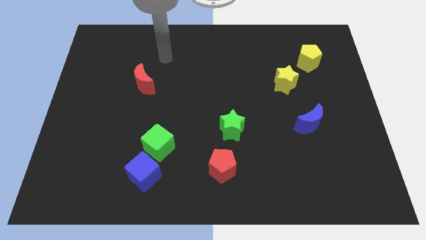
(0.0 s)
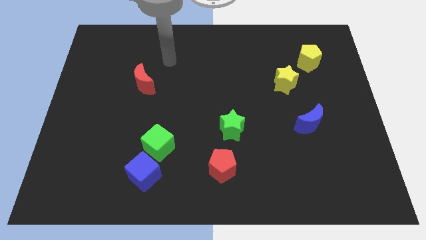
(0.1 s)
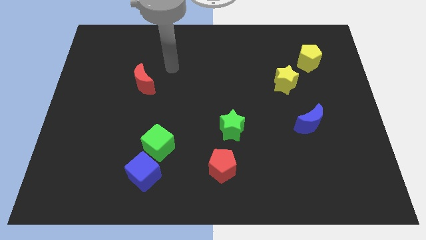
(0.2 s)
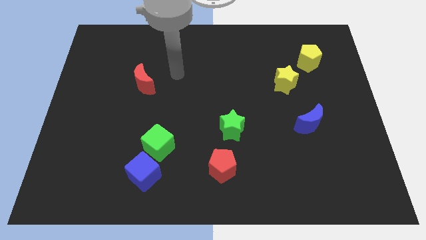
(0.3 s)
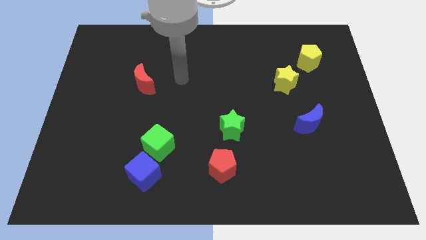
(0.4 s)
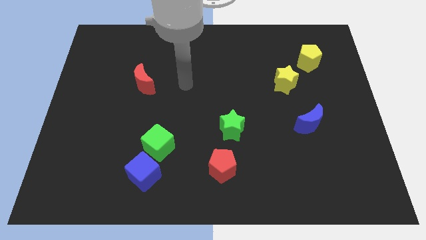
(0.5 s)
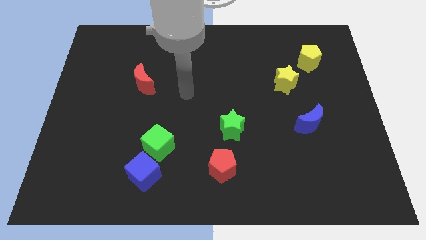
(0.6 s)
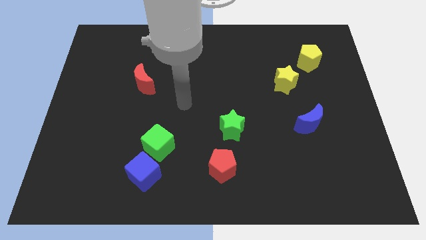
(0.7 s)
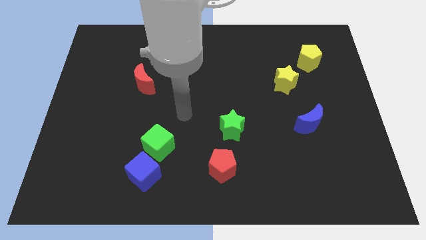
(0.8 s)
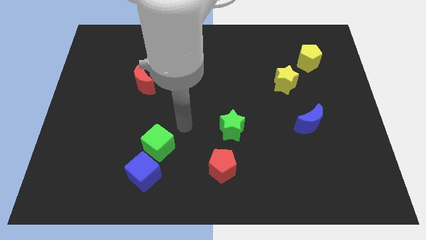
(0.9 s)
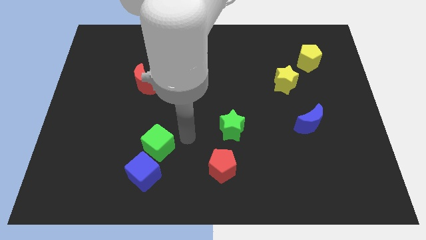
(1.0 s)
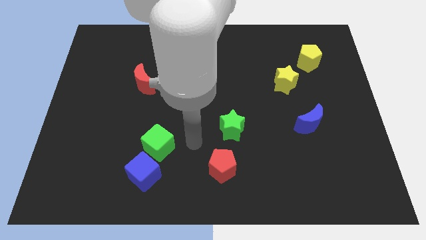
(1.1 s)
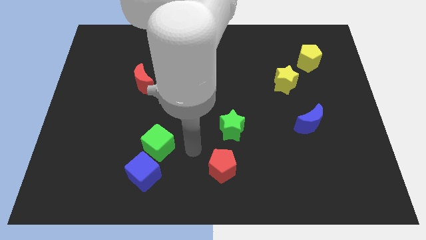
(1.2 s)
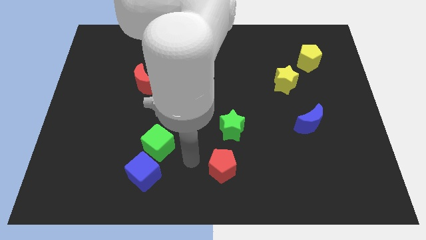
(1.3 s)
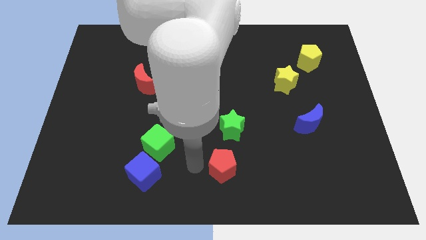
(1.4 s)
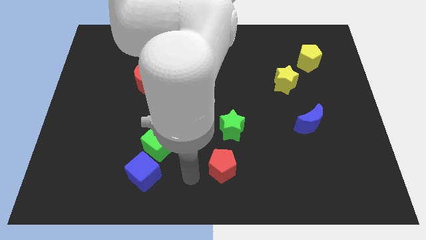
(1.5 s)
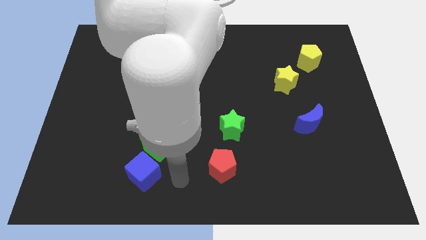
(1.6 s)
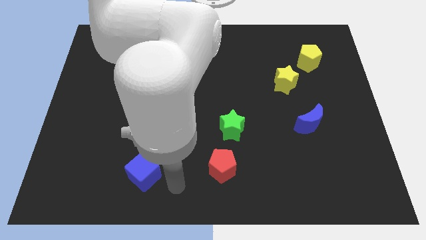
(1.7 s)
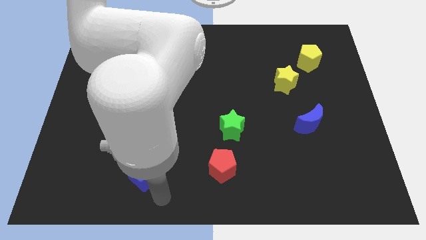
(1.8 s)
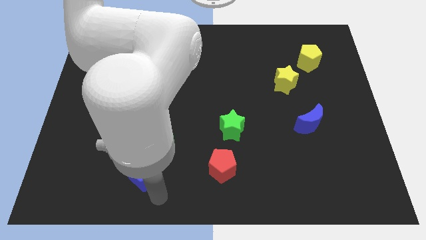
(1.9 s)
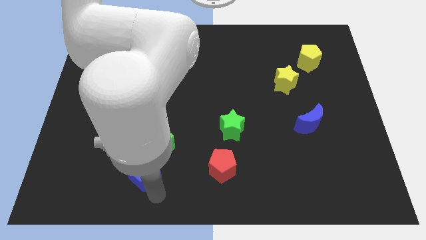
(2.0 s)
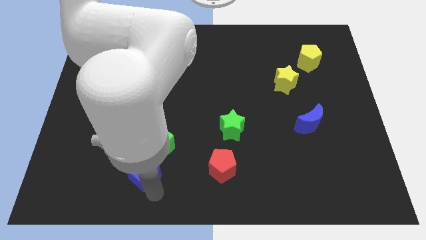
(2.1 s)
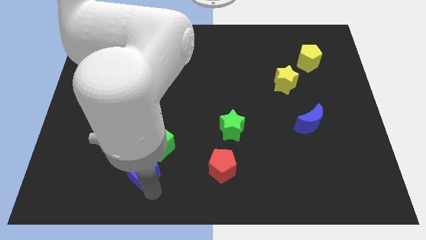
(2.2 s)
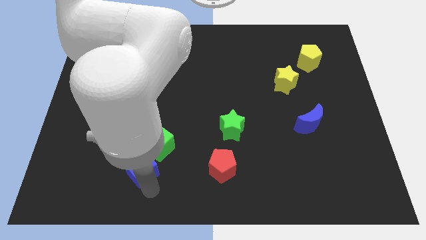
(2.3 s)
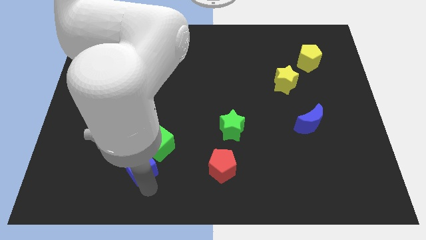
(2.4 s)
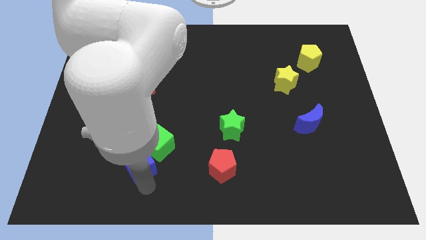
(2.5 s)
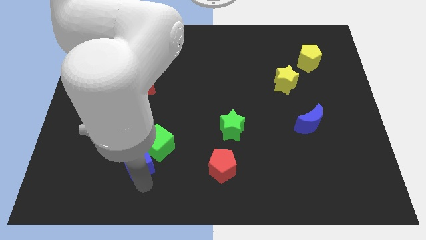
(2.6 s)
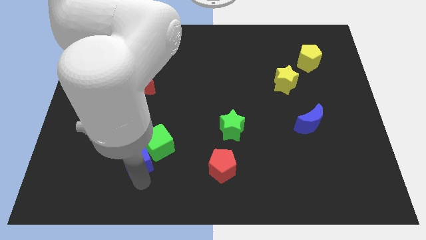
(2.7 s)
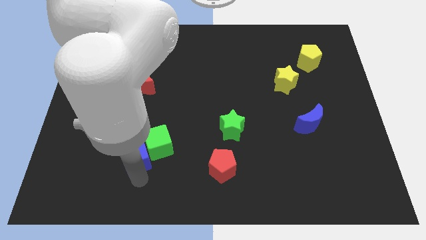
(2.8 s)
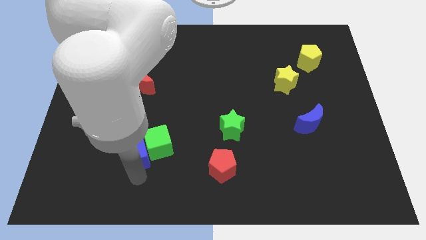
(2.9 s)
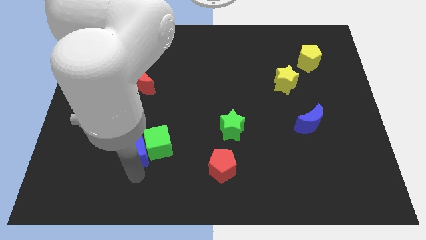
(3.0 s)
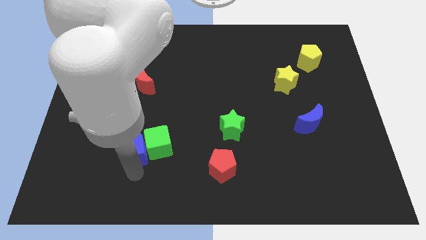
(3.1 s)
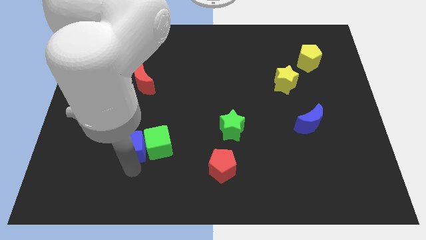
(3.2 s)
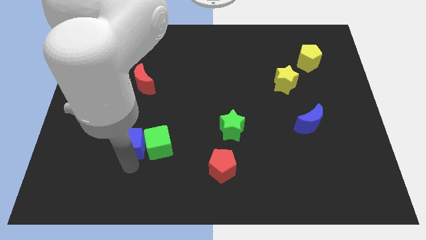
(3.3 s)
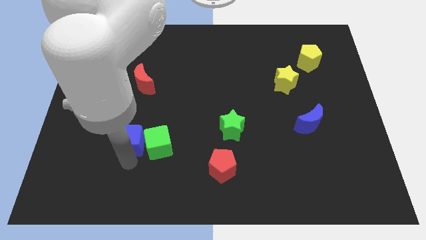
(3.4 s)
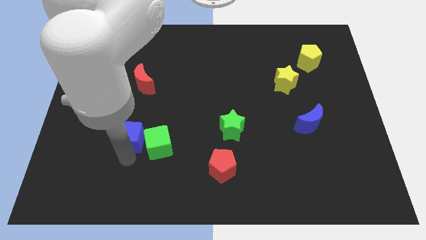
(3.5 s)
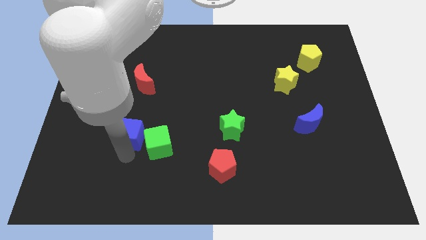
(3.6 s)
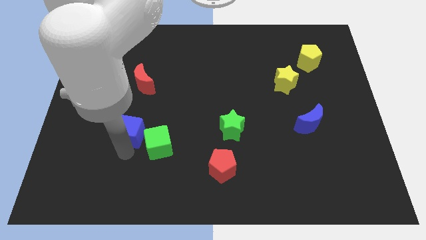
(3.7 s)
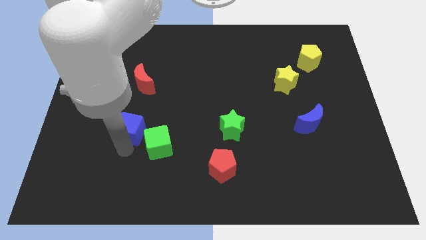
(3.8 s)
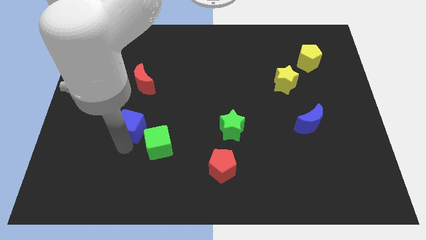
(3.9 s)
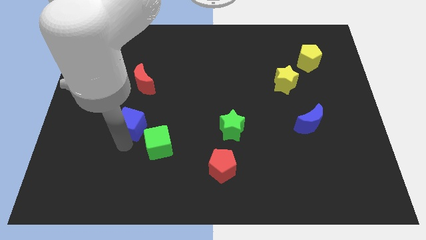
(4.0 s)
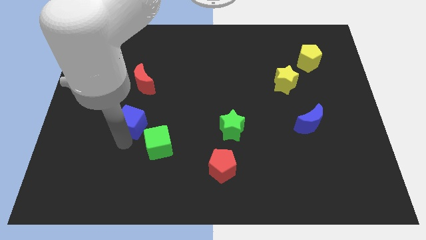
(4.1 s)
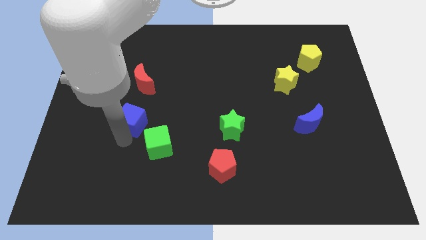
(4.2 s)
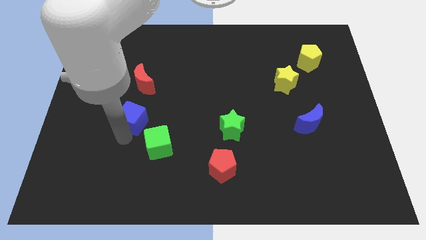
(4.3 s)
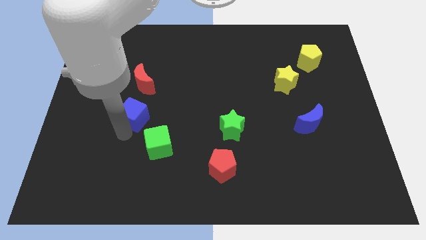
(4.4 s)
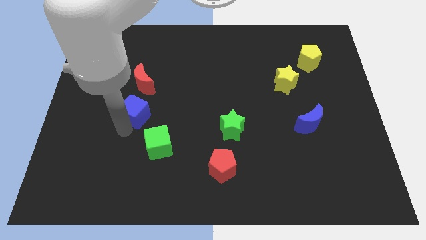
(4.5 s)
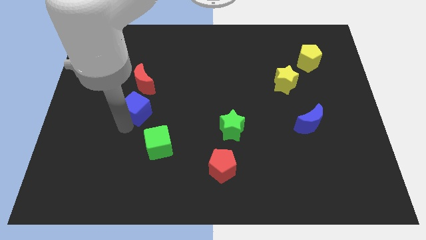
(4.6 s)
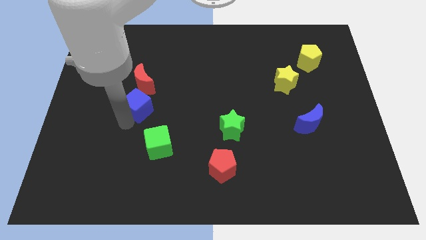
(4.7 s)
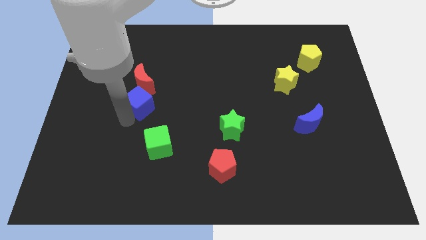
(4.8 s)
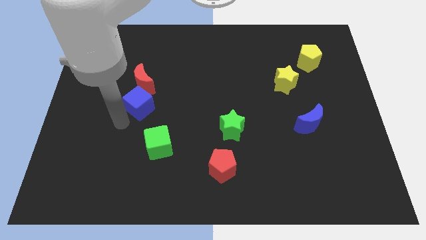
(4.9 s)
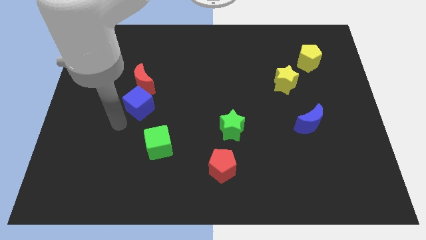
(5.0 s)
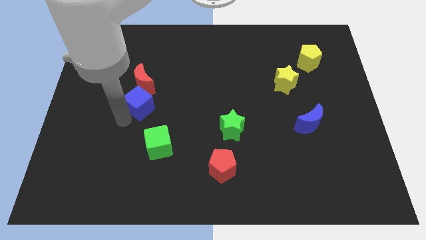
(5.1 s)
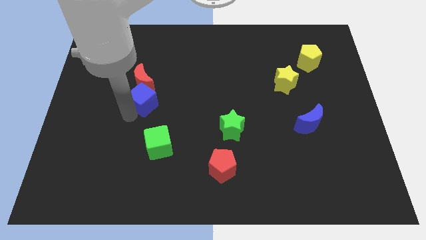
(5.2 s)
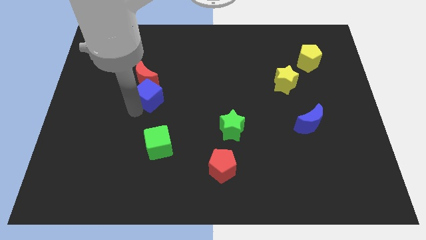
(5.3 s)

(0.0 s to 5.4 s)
move the blue cube up

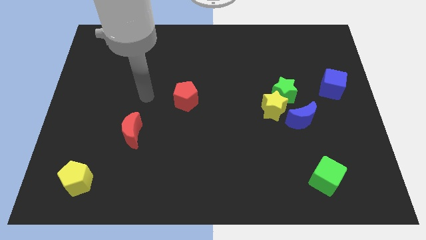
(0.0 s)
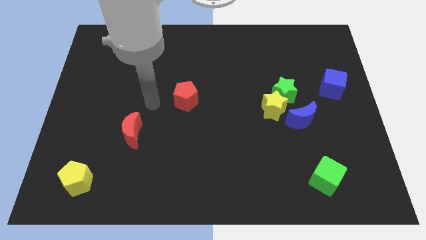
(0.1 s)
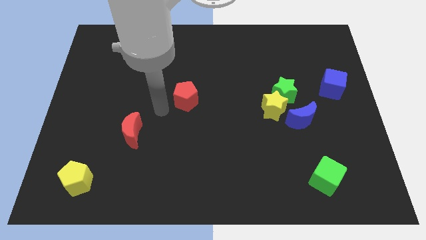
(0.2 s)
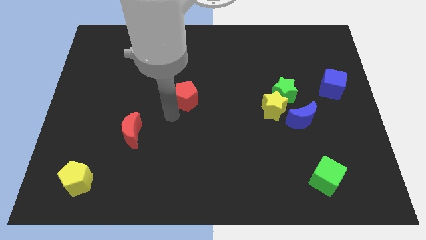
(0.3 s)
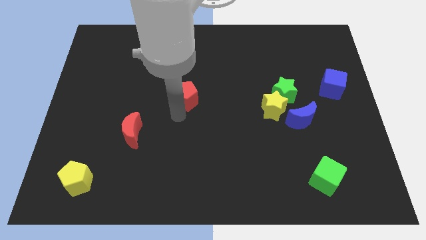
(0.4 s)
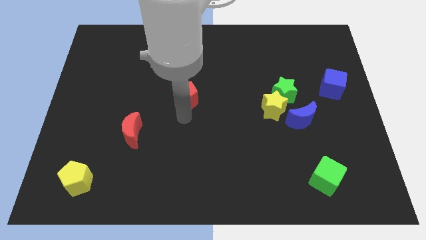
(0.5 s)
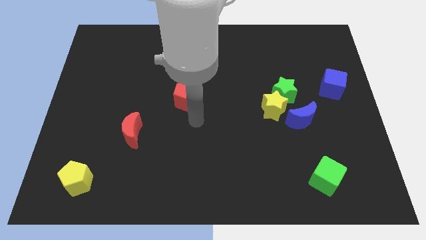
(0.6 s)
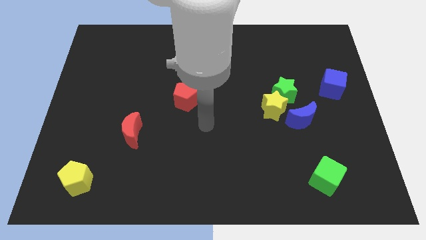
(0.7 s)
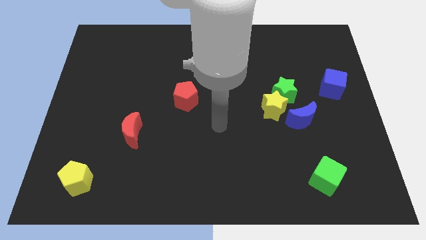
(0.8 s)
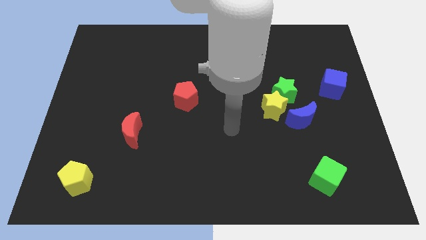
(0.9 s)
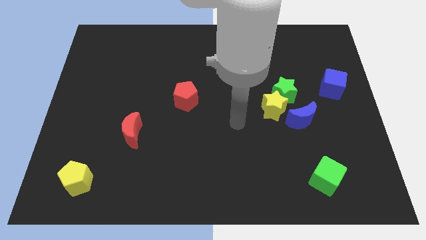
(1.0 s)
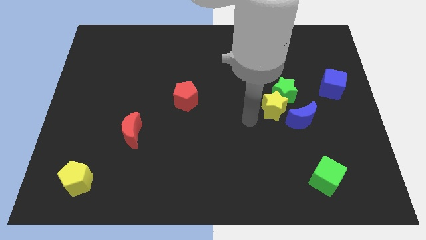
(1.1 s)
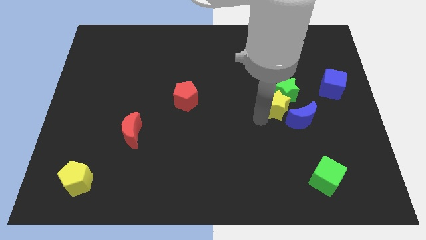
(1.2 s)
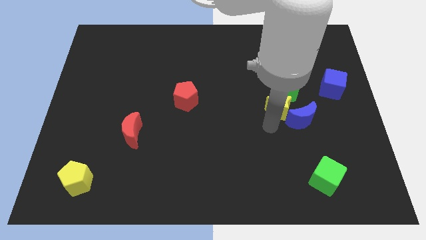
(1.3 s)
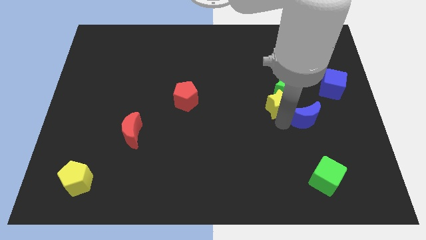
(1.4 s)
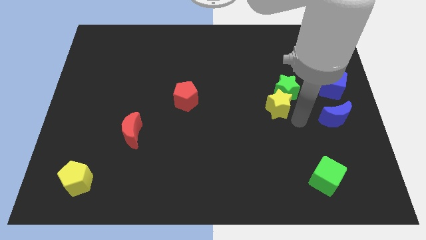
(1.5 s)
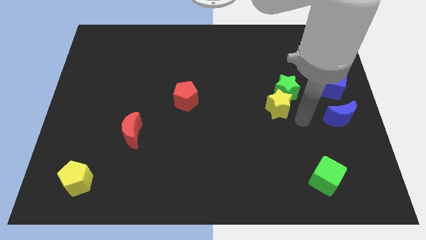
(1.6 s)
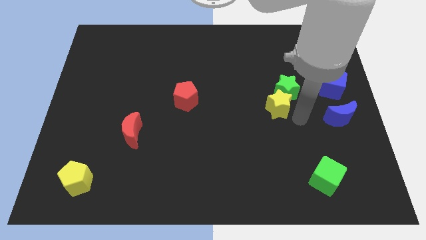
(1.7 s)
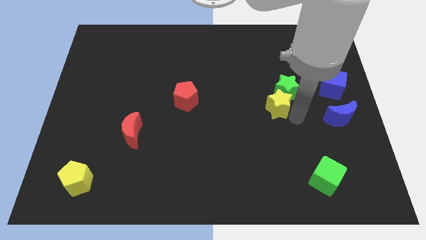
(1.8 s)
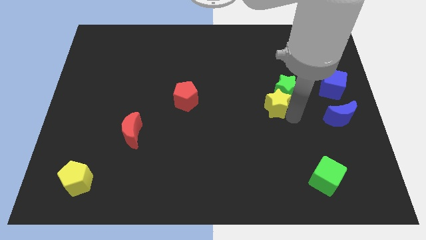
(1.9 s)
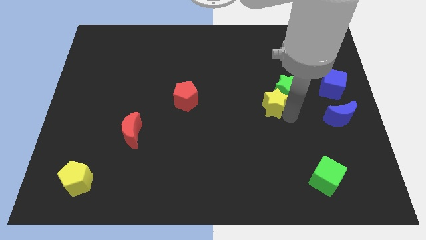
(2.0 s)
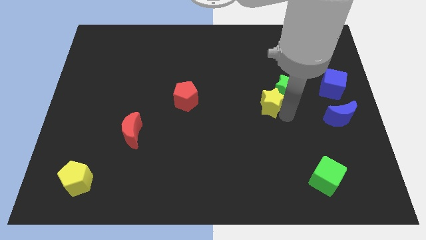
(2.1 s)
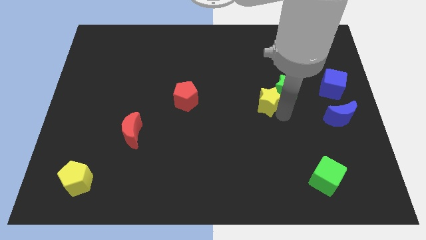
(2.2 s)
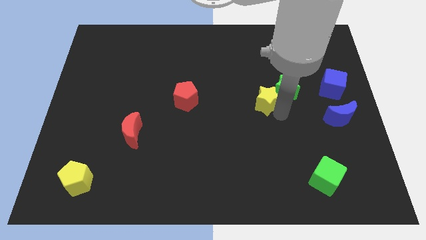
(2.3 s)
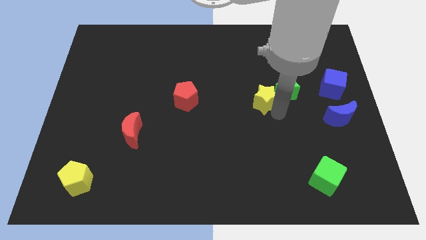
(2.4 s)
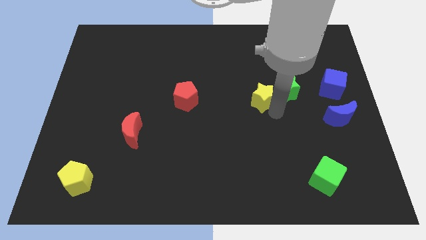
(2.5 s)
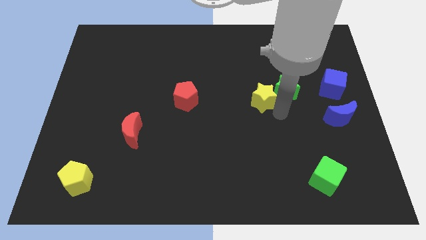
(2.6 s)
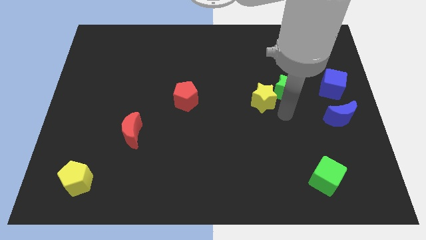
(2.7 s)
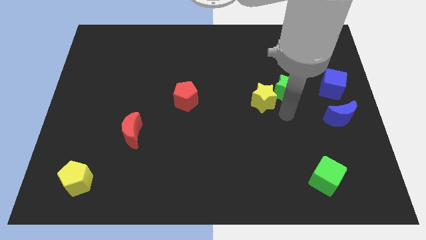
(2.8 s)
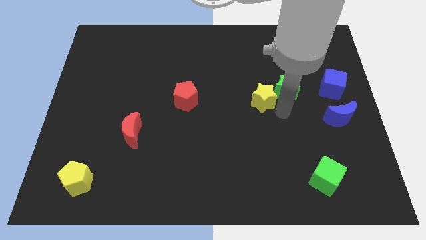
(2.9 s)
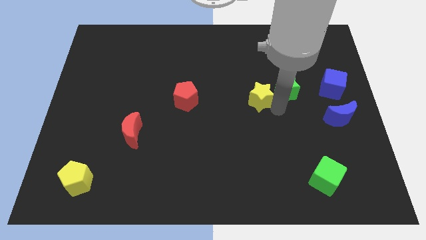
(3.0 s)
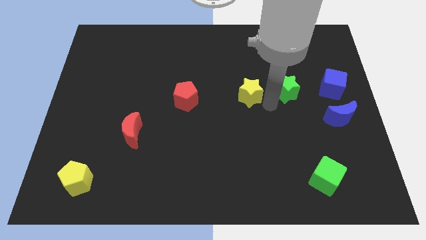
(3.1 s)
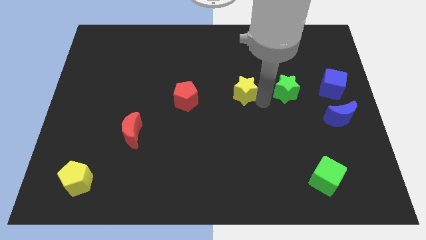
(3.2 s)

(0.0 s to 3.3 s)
slightly slide the yellow star up and to the left diagonally
